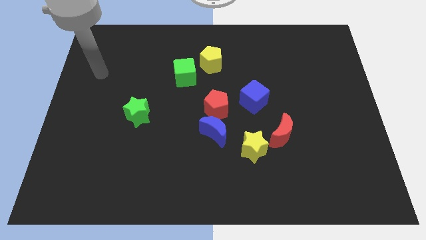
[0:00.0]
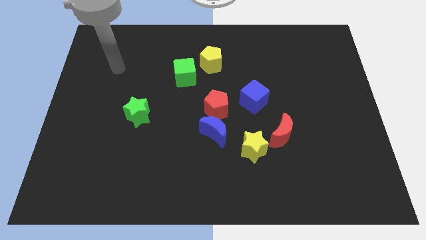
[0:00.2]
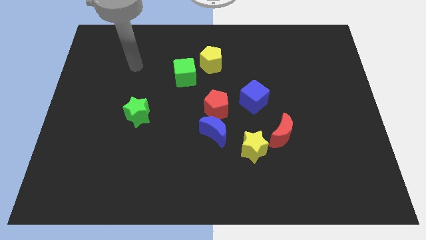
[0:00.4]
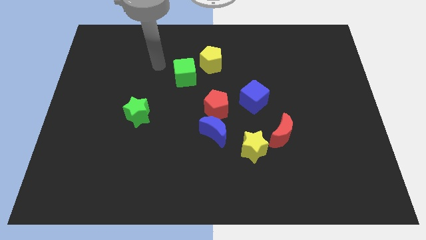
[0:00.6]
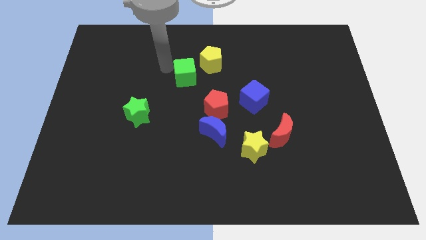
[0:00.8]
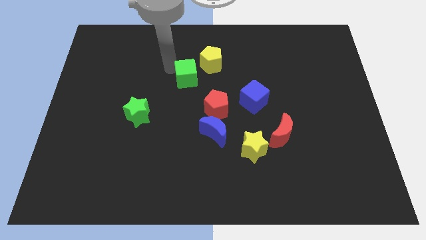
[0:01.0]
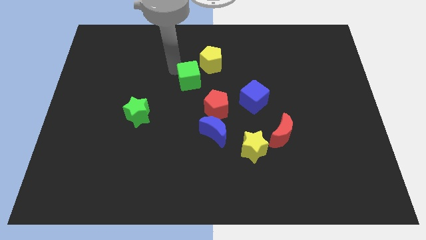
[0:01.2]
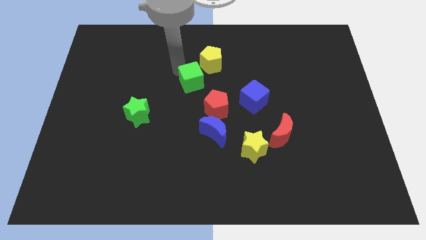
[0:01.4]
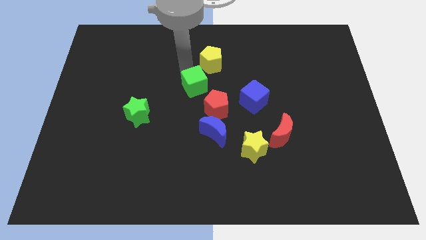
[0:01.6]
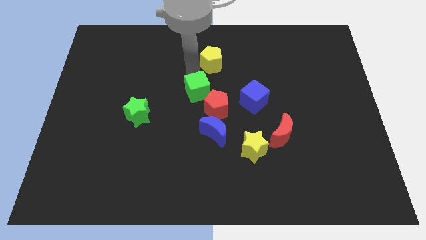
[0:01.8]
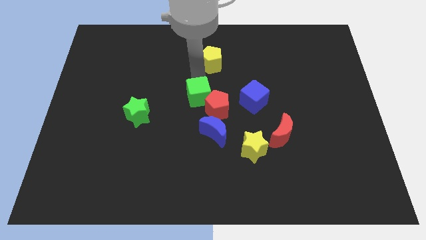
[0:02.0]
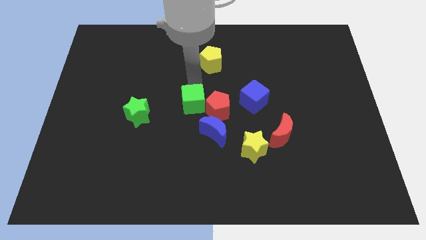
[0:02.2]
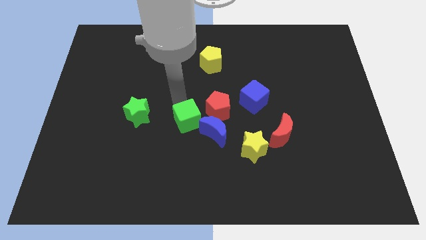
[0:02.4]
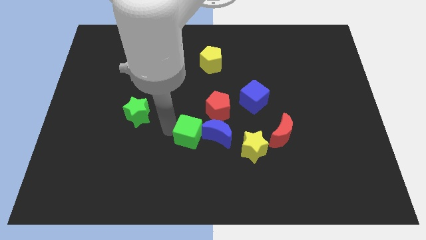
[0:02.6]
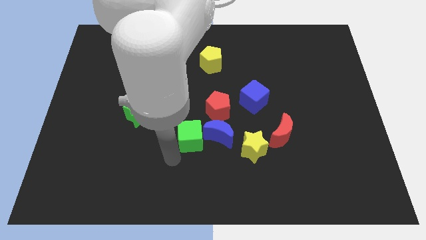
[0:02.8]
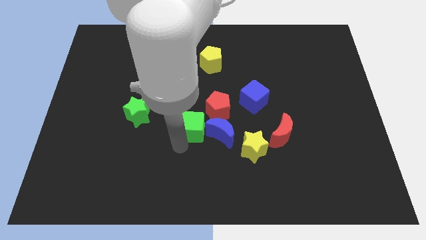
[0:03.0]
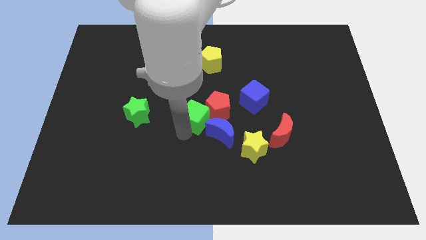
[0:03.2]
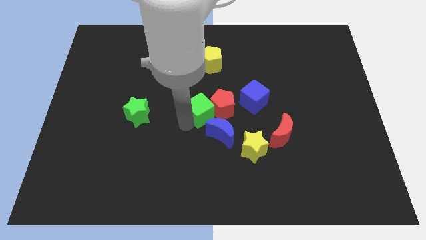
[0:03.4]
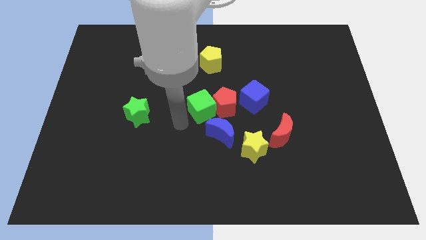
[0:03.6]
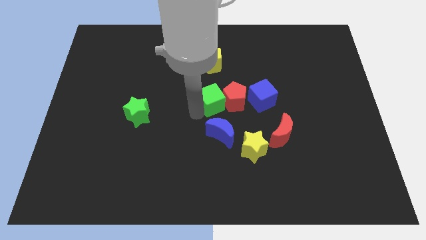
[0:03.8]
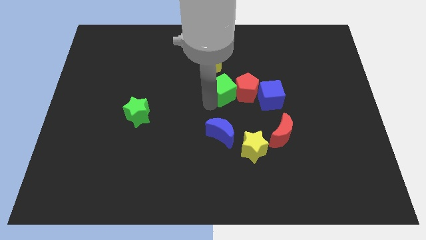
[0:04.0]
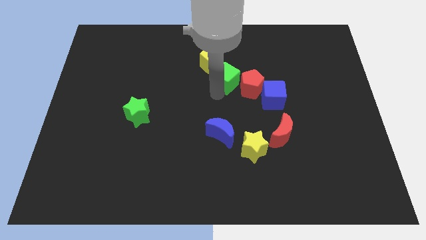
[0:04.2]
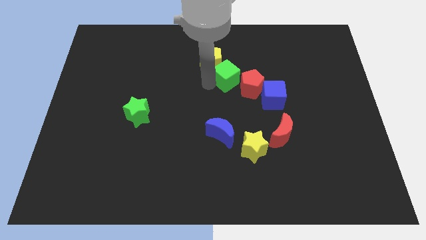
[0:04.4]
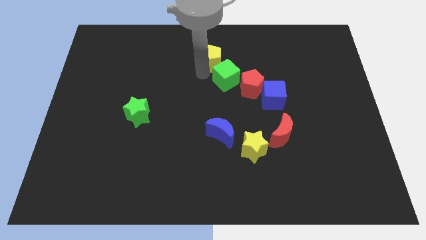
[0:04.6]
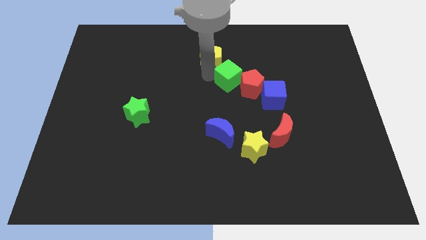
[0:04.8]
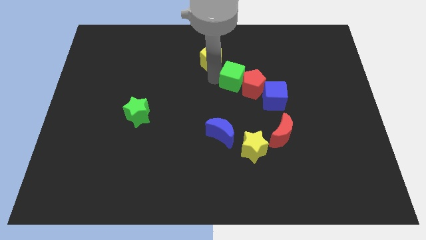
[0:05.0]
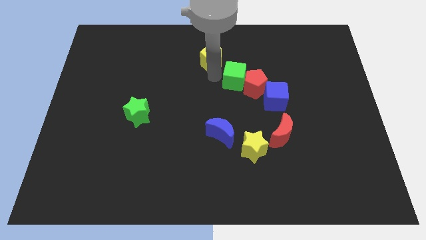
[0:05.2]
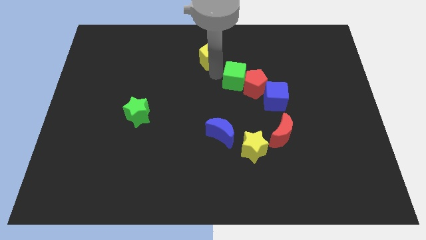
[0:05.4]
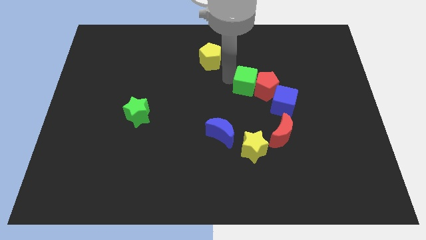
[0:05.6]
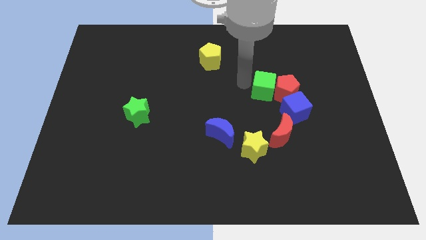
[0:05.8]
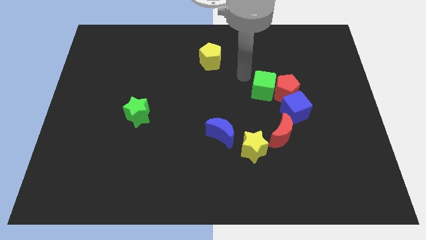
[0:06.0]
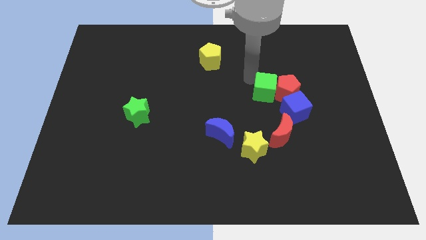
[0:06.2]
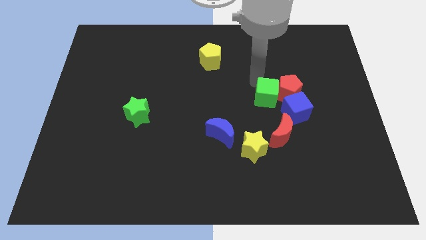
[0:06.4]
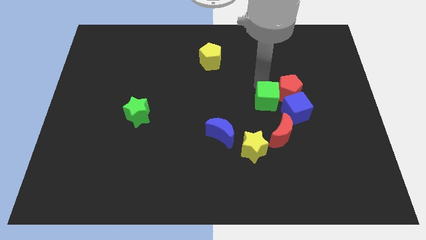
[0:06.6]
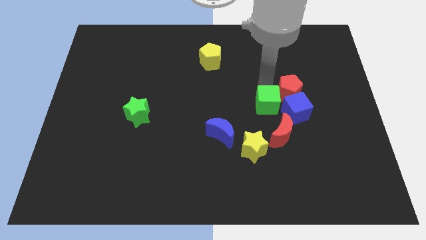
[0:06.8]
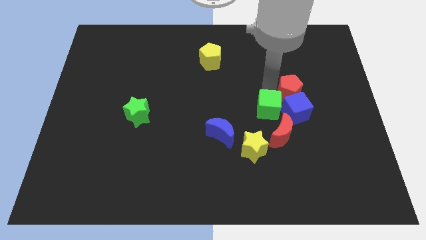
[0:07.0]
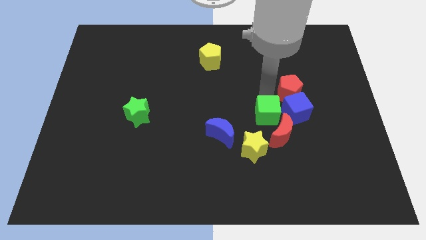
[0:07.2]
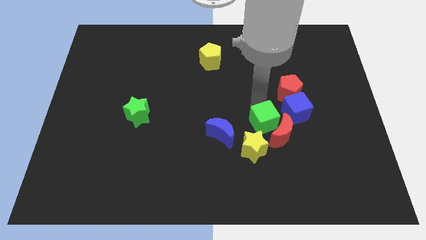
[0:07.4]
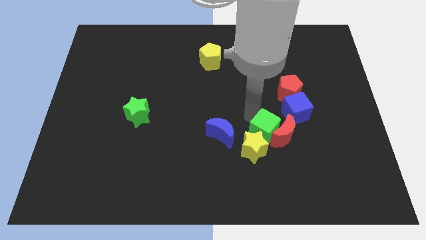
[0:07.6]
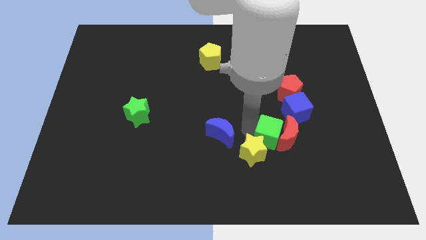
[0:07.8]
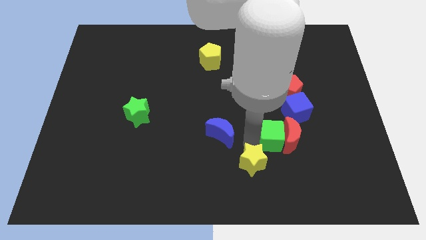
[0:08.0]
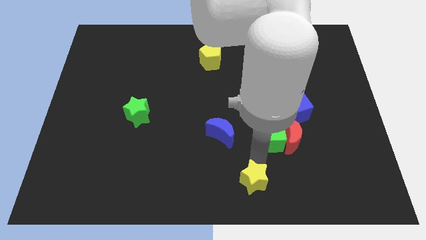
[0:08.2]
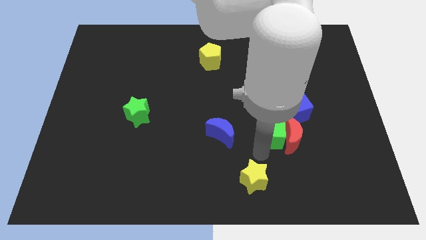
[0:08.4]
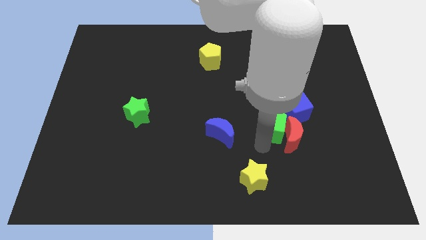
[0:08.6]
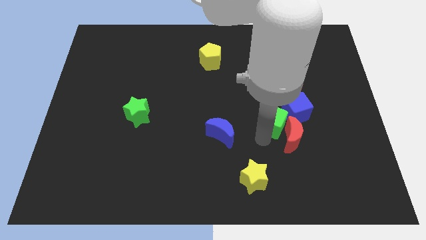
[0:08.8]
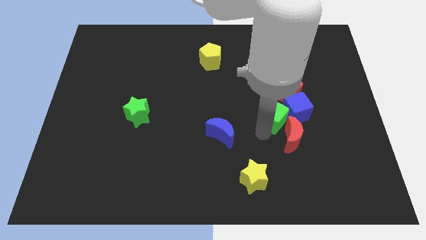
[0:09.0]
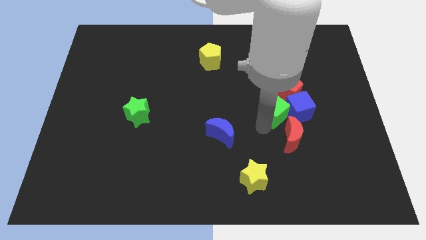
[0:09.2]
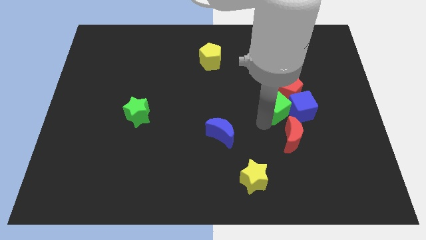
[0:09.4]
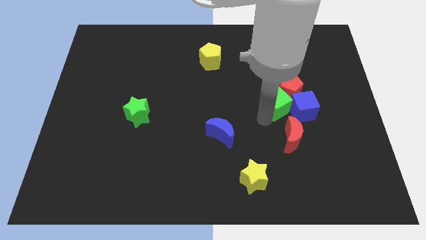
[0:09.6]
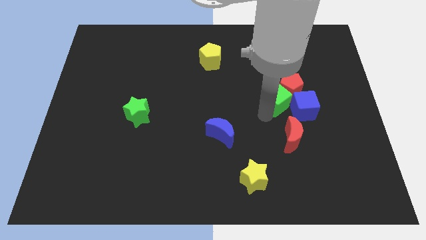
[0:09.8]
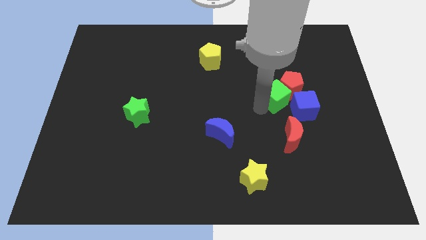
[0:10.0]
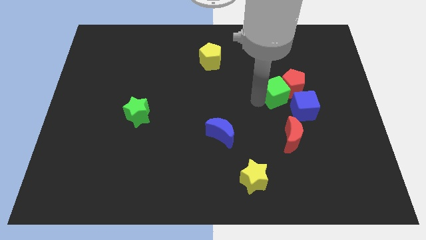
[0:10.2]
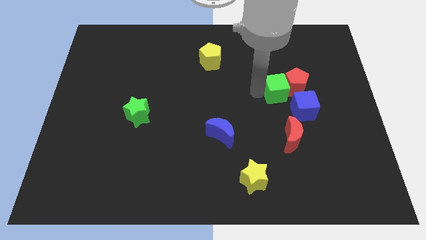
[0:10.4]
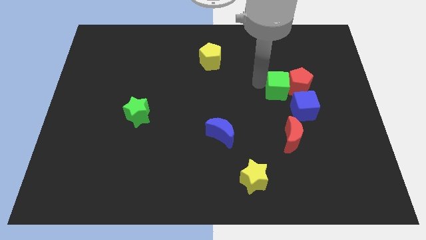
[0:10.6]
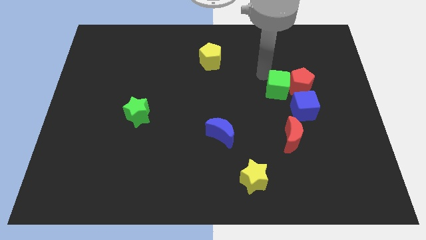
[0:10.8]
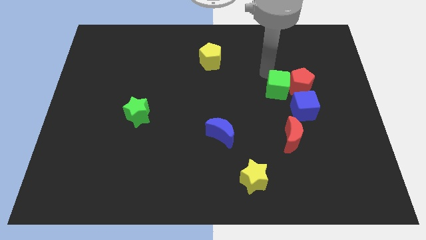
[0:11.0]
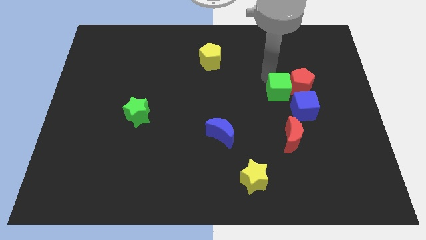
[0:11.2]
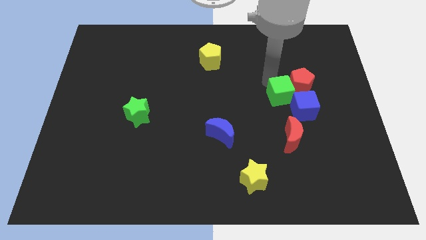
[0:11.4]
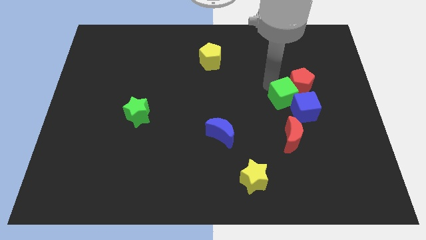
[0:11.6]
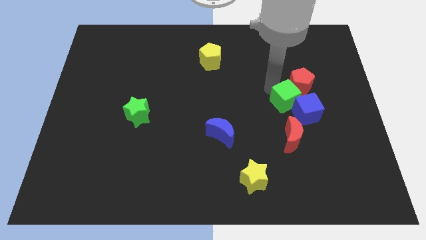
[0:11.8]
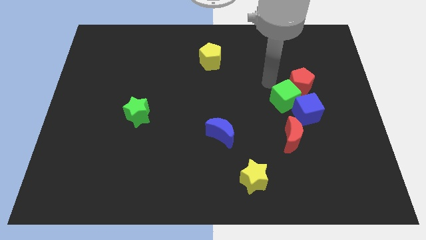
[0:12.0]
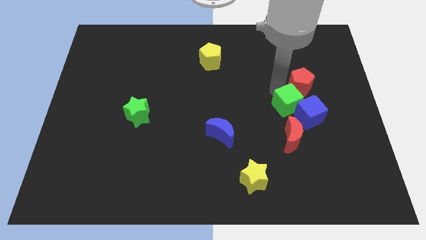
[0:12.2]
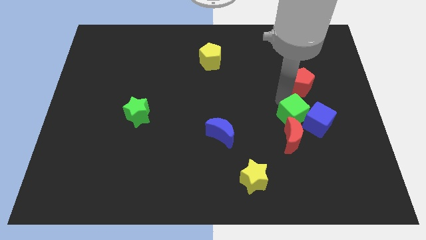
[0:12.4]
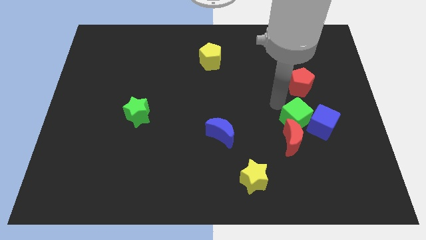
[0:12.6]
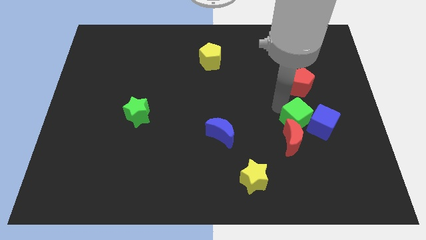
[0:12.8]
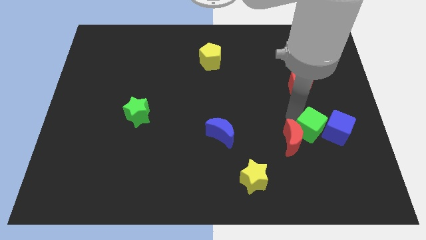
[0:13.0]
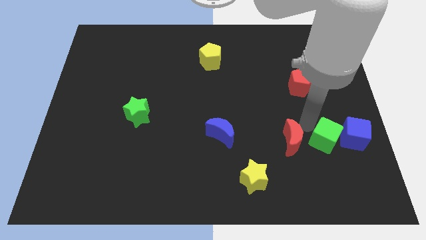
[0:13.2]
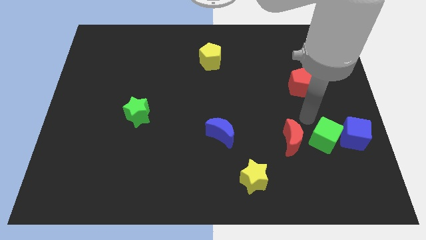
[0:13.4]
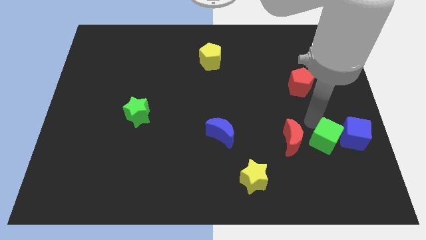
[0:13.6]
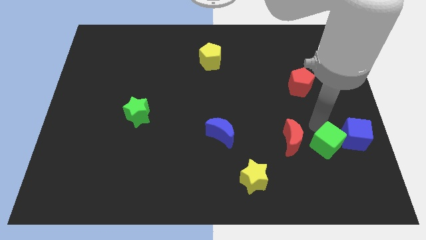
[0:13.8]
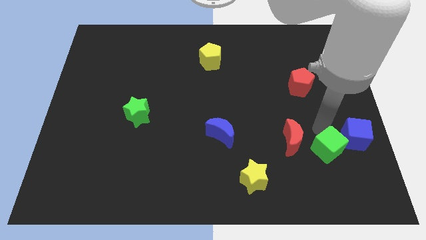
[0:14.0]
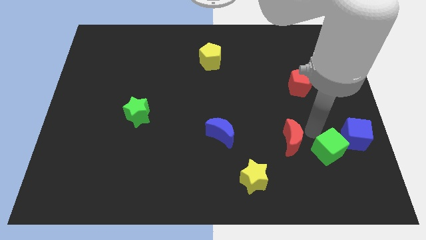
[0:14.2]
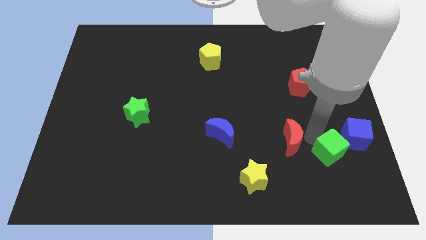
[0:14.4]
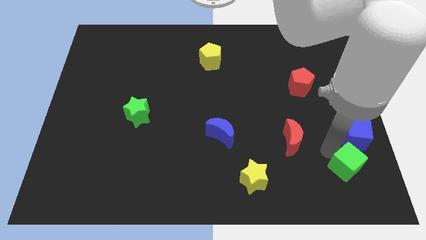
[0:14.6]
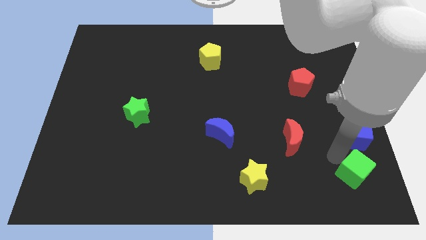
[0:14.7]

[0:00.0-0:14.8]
push the green cube to the bottom right
